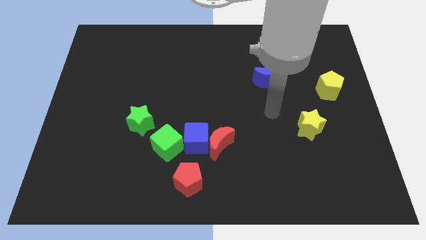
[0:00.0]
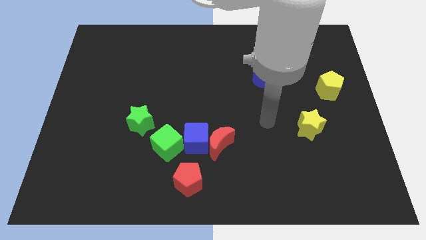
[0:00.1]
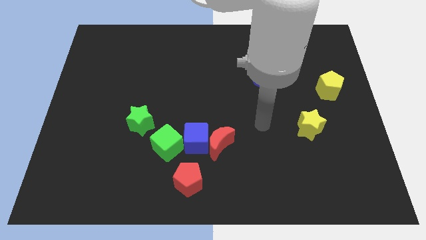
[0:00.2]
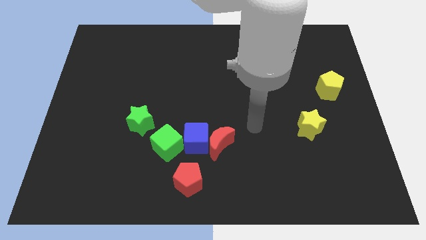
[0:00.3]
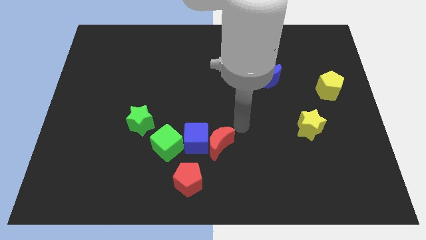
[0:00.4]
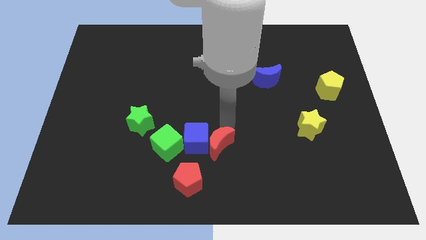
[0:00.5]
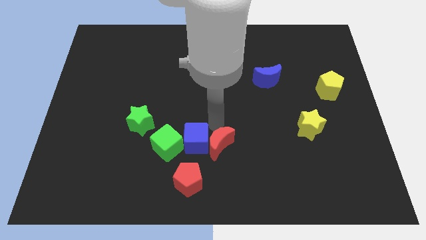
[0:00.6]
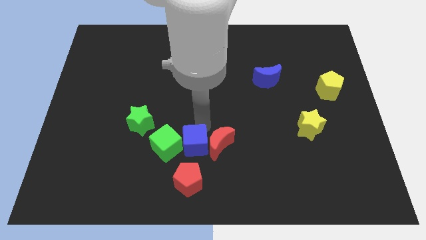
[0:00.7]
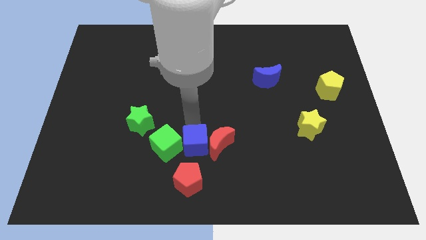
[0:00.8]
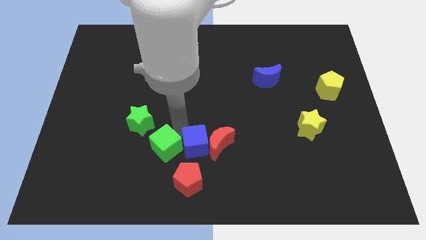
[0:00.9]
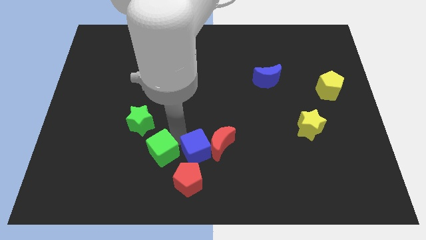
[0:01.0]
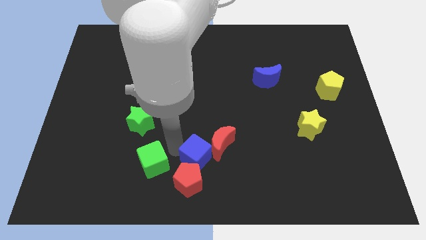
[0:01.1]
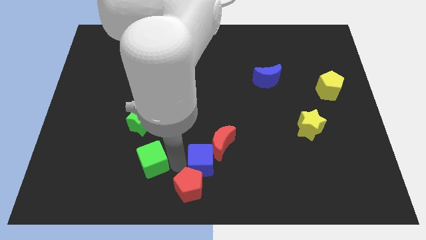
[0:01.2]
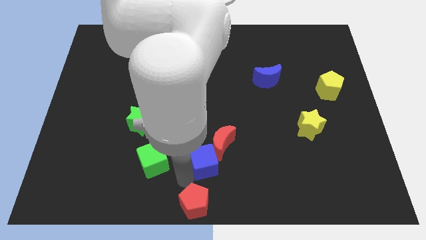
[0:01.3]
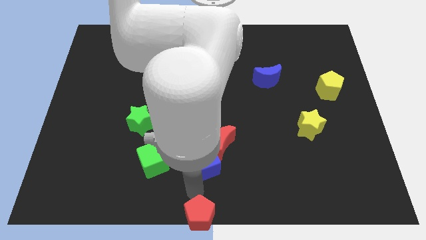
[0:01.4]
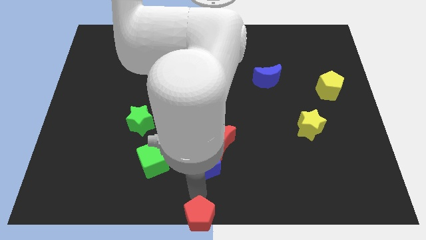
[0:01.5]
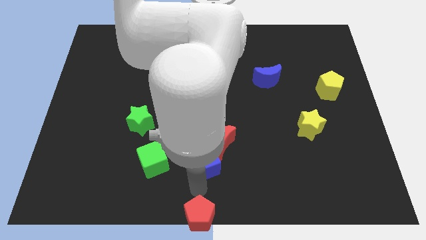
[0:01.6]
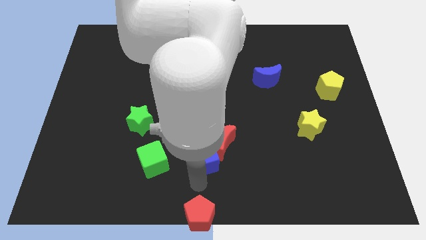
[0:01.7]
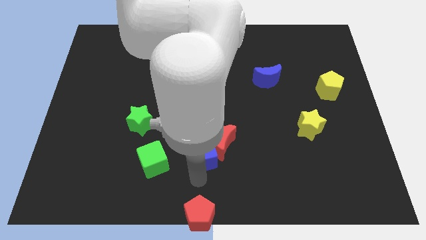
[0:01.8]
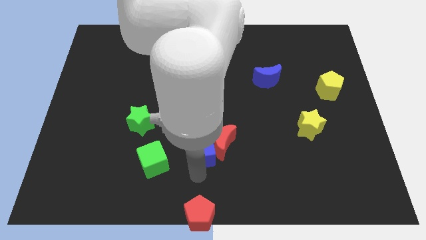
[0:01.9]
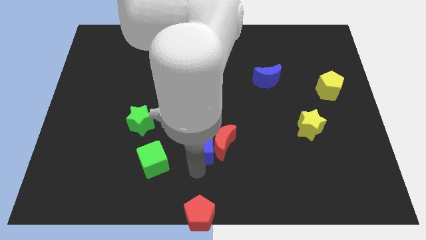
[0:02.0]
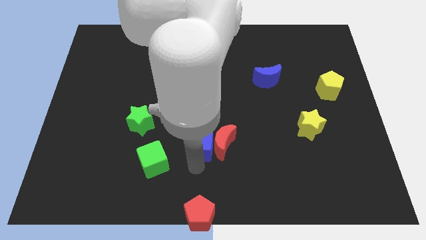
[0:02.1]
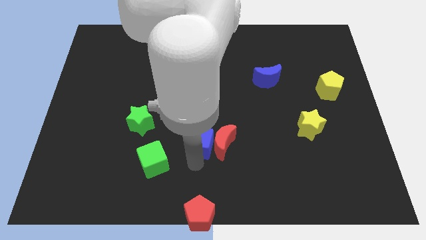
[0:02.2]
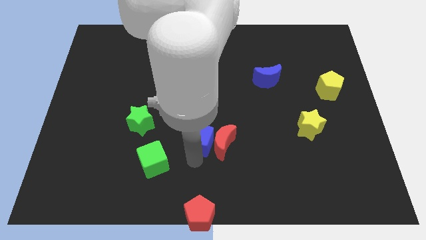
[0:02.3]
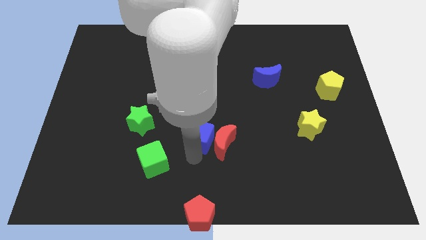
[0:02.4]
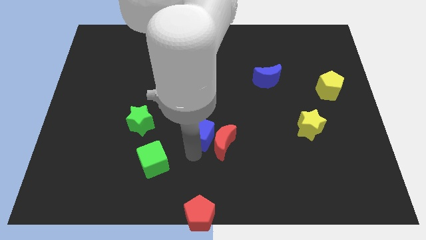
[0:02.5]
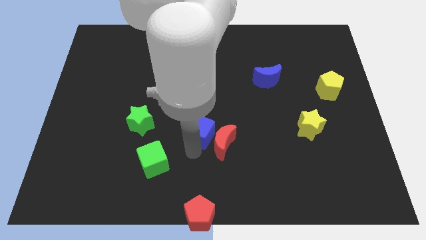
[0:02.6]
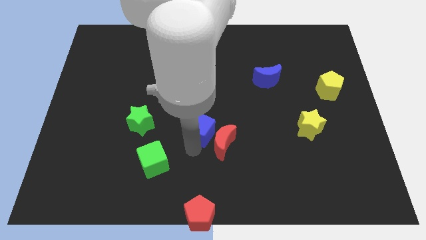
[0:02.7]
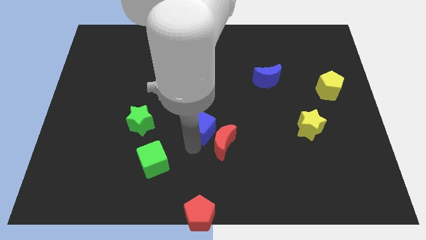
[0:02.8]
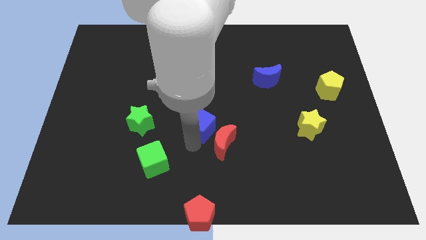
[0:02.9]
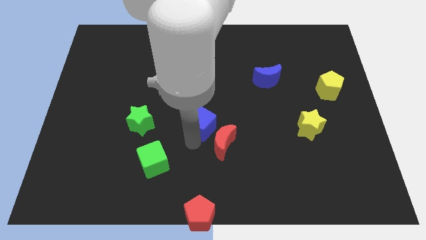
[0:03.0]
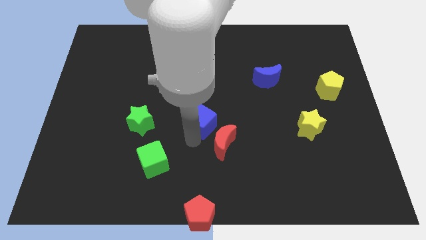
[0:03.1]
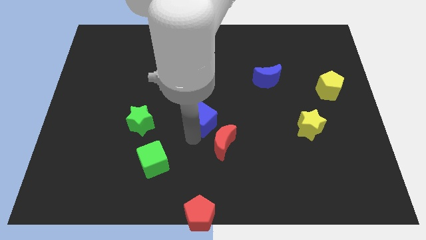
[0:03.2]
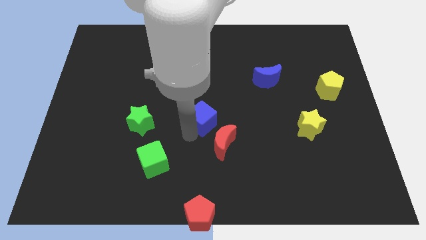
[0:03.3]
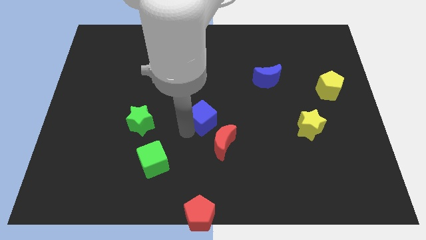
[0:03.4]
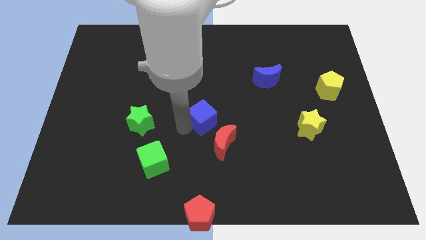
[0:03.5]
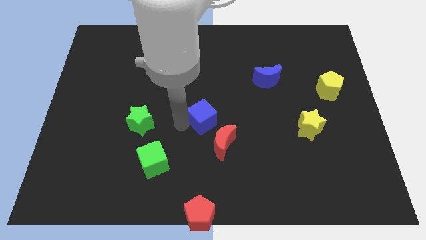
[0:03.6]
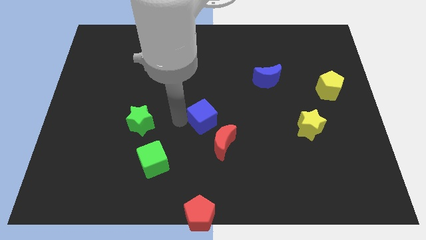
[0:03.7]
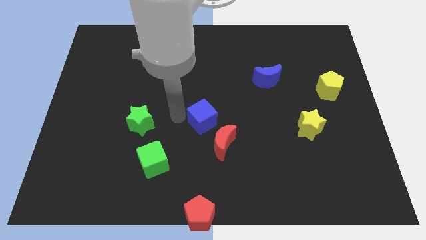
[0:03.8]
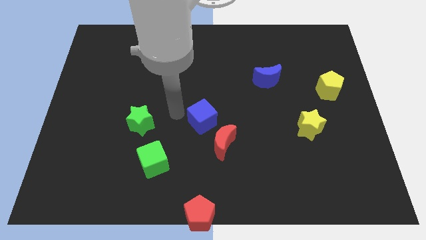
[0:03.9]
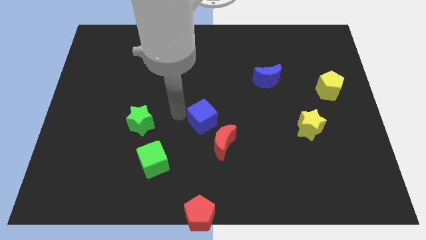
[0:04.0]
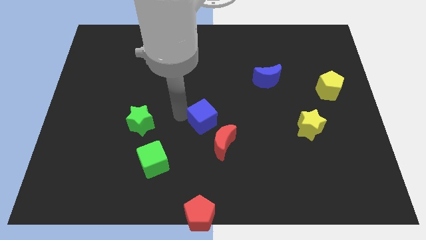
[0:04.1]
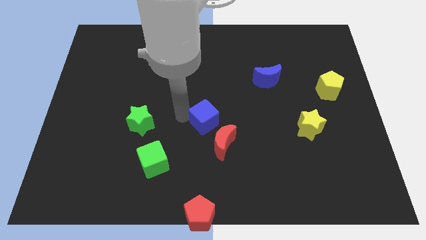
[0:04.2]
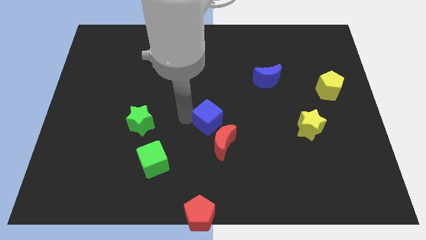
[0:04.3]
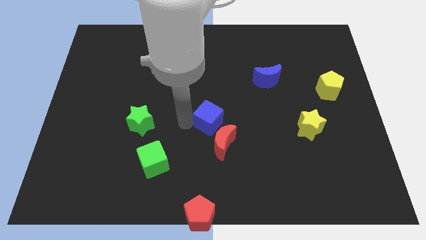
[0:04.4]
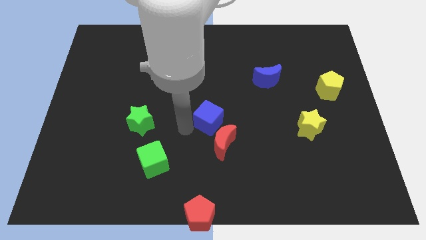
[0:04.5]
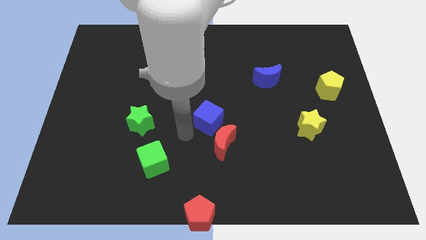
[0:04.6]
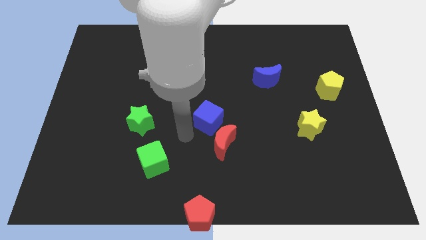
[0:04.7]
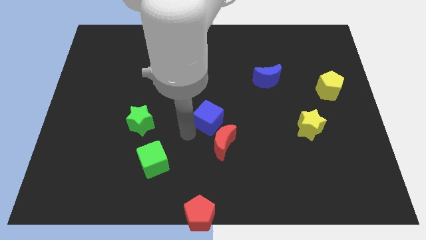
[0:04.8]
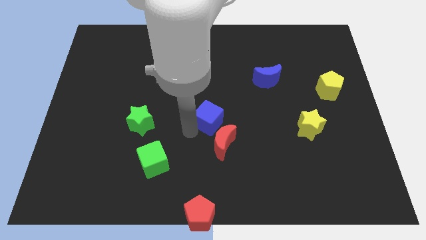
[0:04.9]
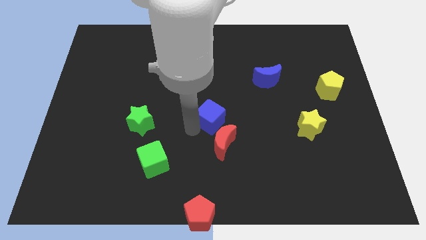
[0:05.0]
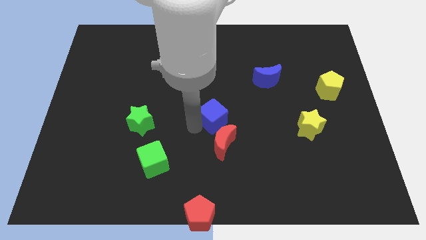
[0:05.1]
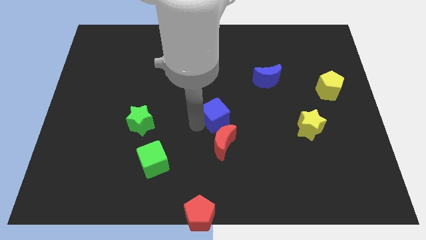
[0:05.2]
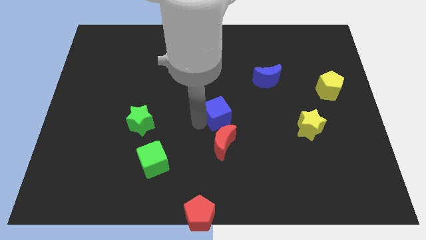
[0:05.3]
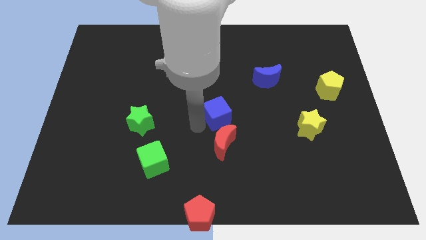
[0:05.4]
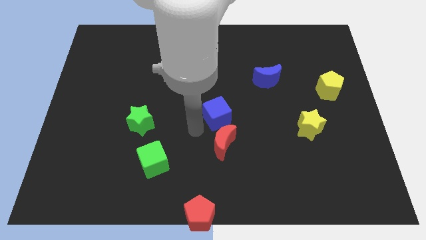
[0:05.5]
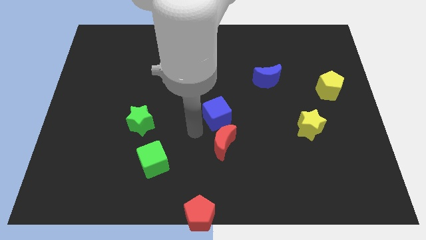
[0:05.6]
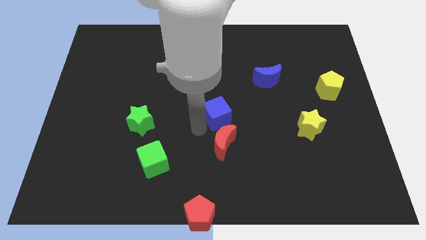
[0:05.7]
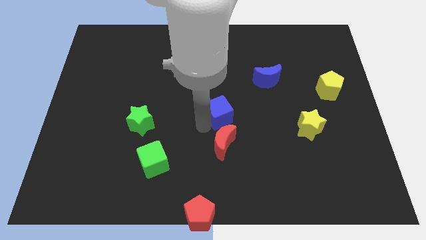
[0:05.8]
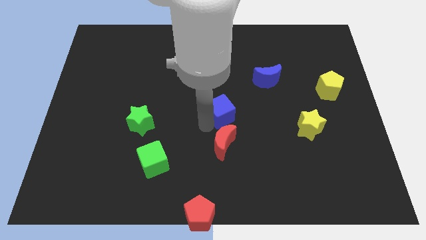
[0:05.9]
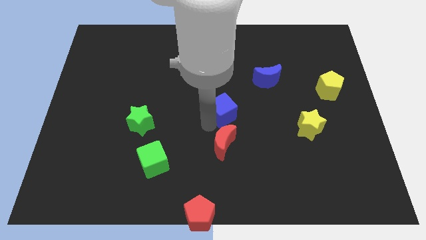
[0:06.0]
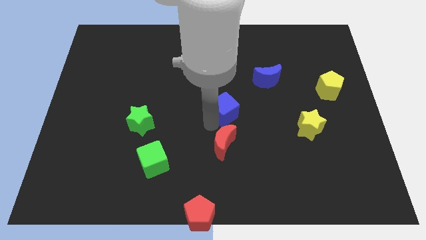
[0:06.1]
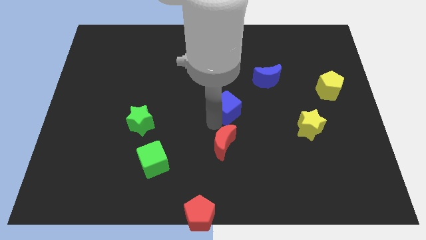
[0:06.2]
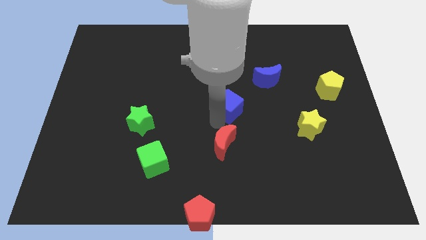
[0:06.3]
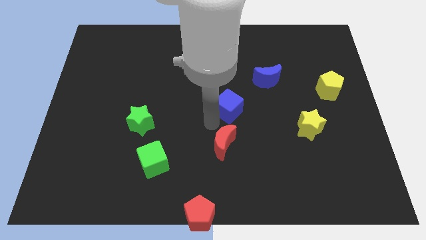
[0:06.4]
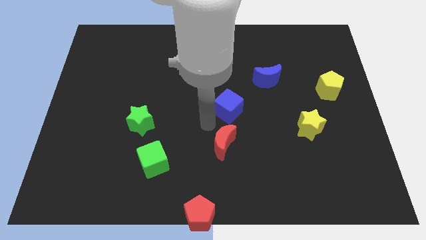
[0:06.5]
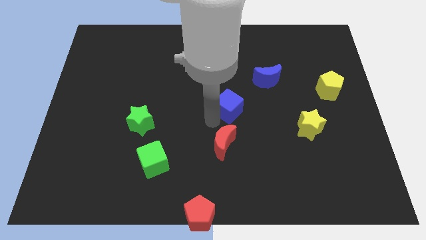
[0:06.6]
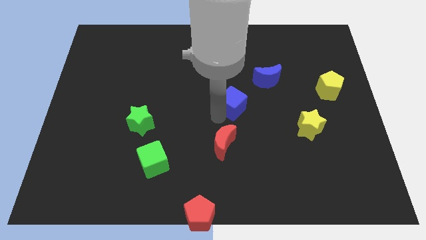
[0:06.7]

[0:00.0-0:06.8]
push the blue cube to the bottom left side of the blue moon
